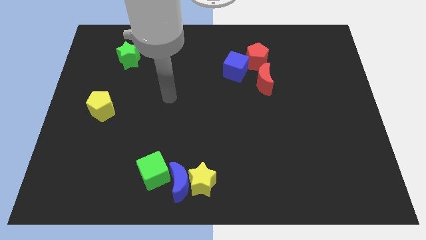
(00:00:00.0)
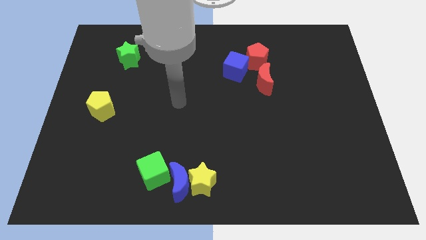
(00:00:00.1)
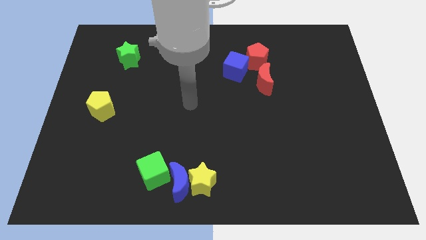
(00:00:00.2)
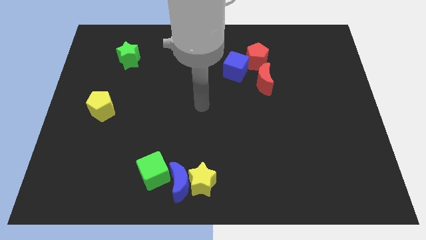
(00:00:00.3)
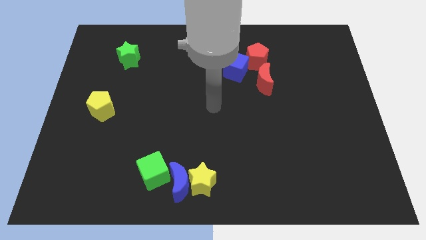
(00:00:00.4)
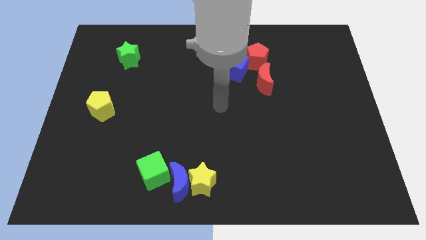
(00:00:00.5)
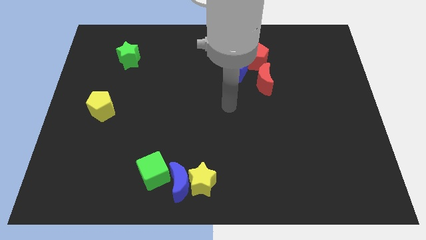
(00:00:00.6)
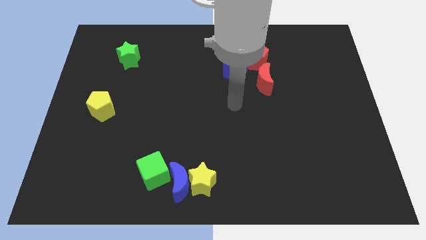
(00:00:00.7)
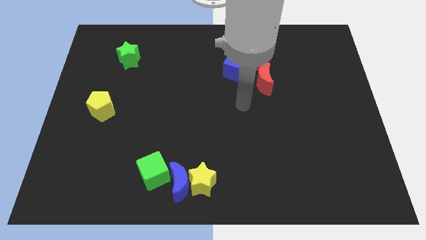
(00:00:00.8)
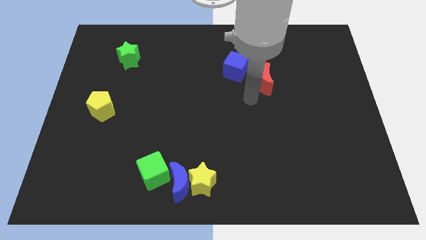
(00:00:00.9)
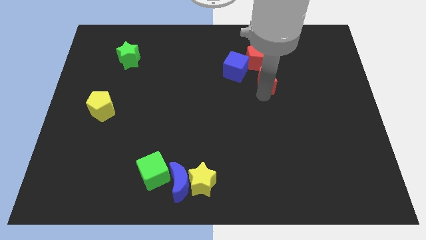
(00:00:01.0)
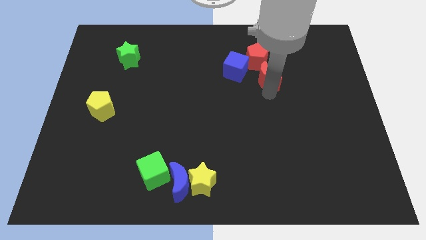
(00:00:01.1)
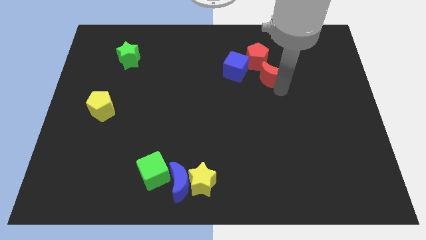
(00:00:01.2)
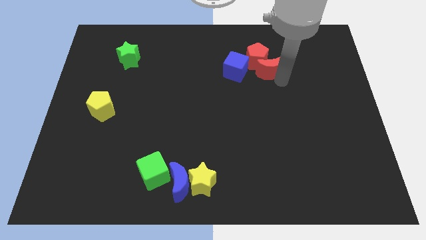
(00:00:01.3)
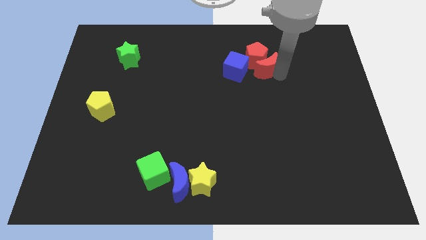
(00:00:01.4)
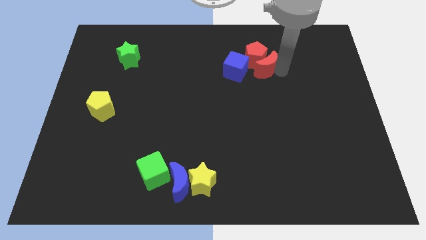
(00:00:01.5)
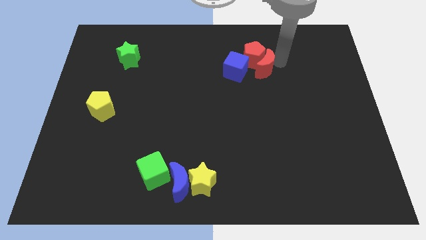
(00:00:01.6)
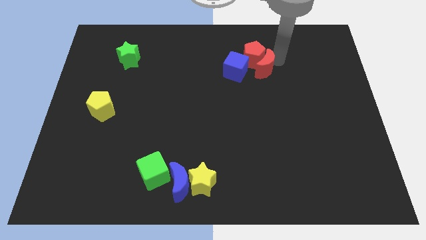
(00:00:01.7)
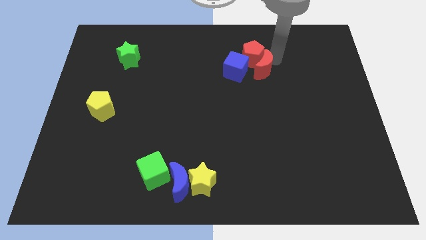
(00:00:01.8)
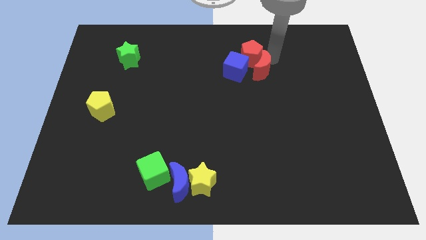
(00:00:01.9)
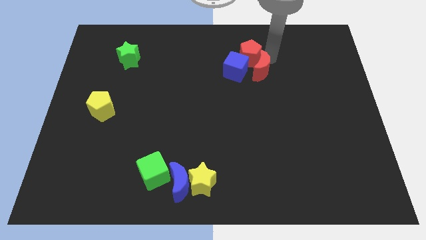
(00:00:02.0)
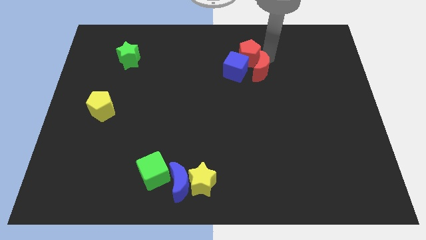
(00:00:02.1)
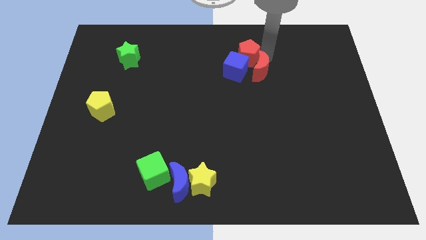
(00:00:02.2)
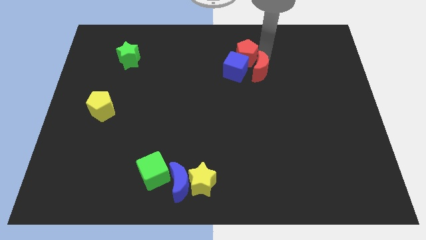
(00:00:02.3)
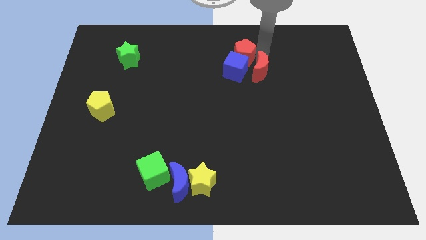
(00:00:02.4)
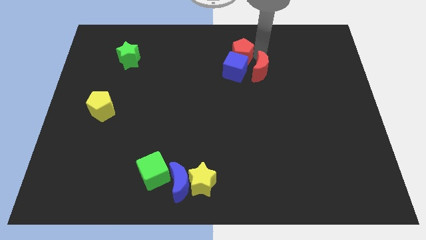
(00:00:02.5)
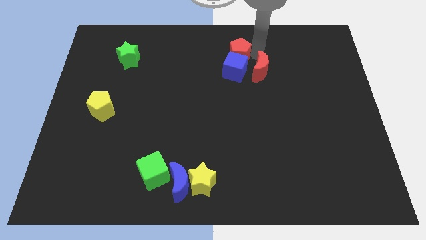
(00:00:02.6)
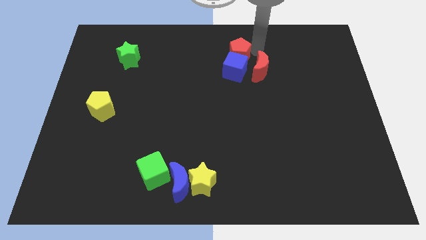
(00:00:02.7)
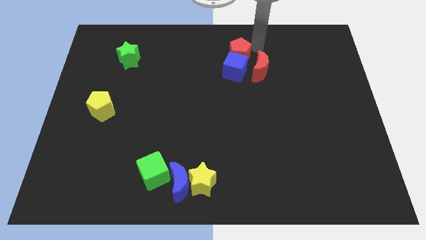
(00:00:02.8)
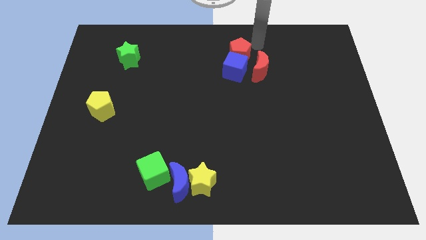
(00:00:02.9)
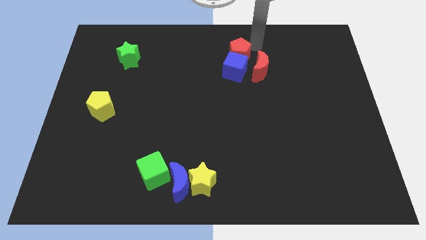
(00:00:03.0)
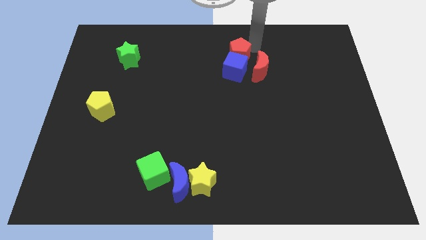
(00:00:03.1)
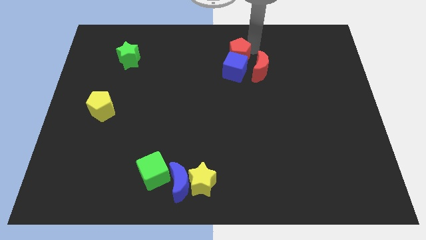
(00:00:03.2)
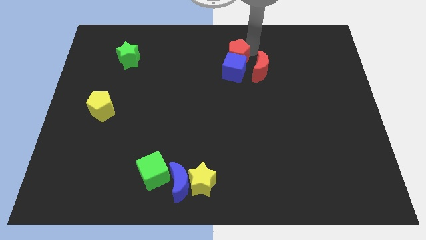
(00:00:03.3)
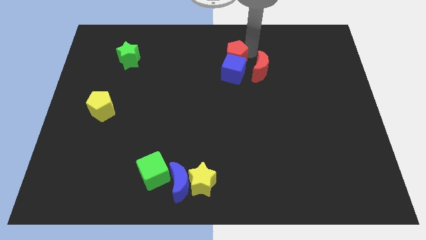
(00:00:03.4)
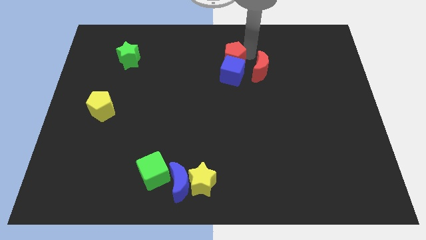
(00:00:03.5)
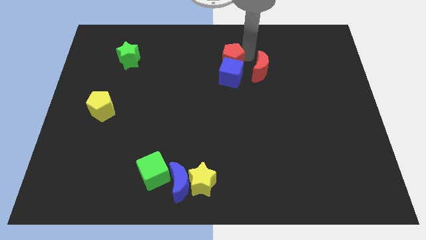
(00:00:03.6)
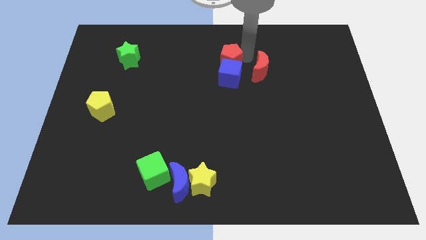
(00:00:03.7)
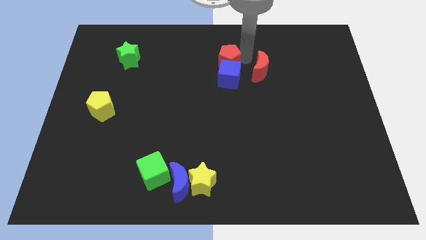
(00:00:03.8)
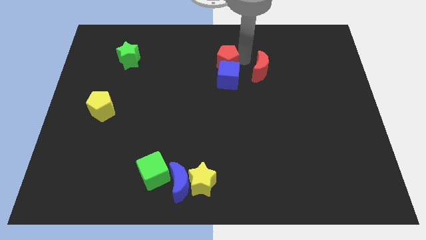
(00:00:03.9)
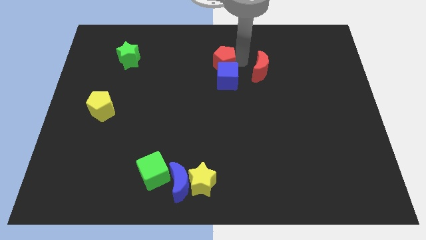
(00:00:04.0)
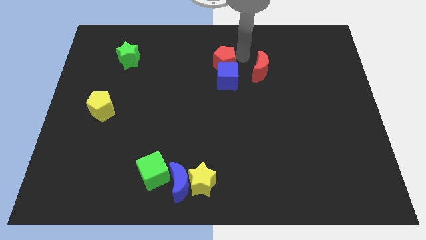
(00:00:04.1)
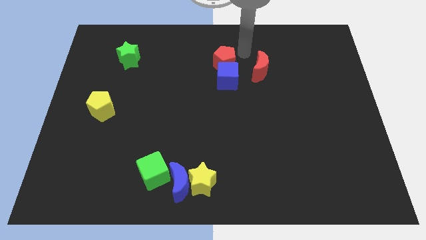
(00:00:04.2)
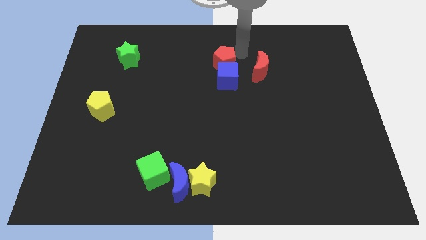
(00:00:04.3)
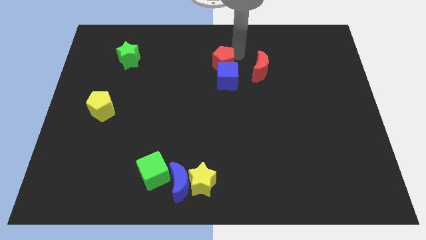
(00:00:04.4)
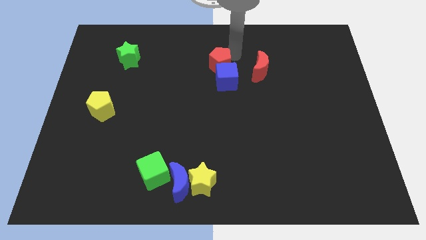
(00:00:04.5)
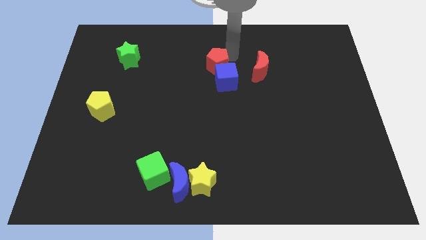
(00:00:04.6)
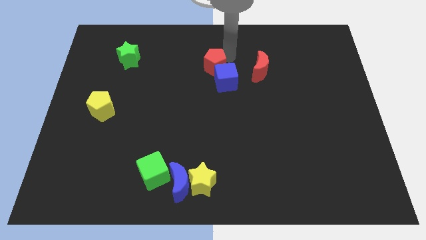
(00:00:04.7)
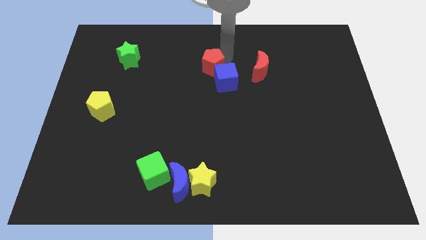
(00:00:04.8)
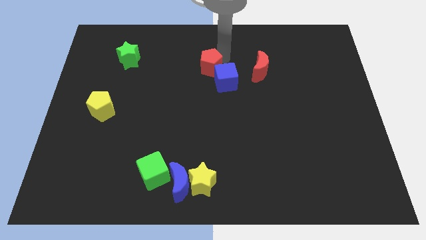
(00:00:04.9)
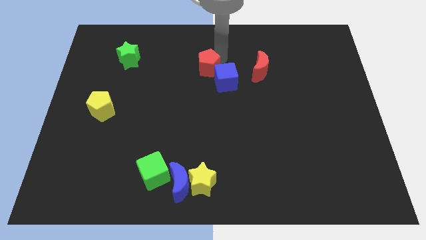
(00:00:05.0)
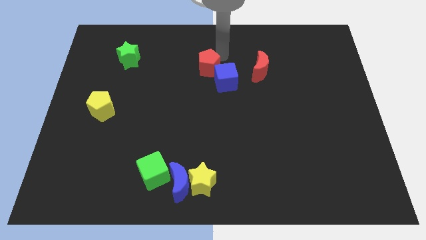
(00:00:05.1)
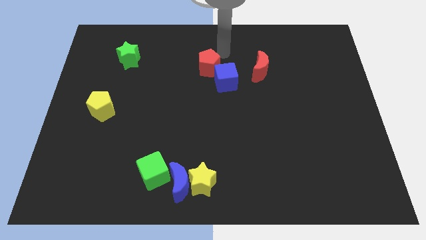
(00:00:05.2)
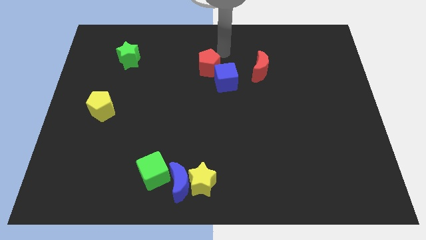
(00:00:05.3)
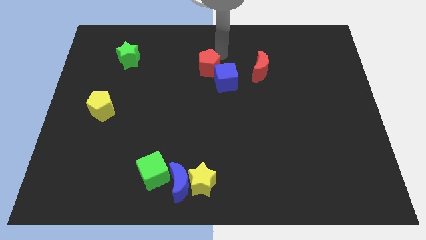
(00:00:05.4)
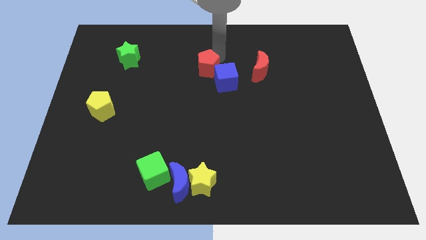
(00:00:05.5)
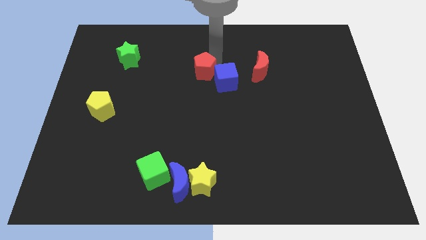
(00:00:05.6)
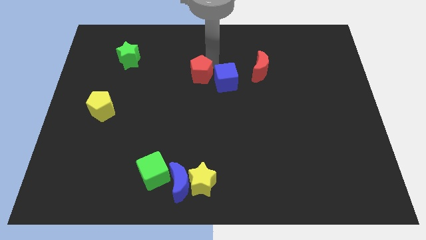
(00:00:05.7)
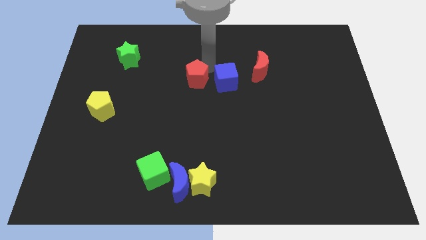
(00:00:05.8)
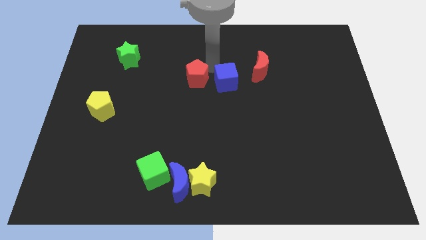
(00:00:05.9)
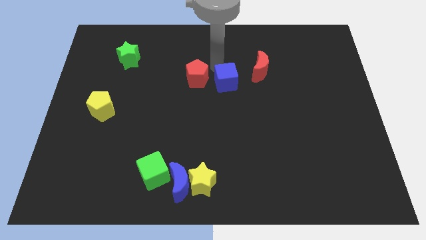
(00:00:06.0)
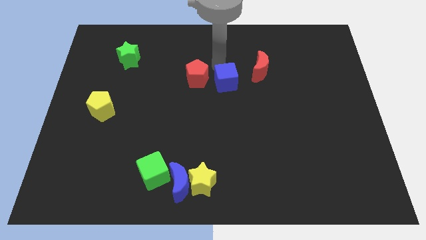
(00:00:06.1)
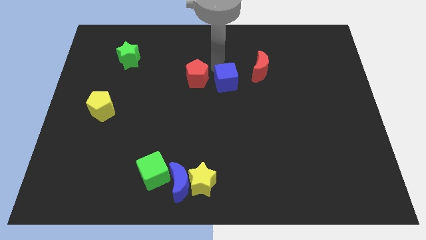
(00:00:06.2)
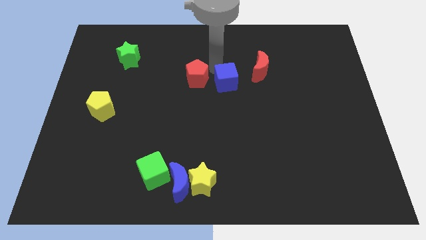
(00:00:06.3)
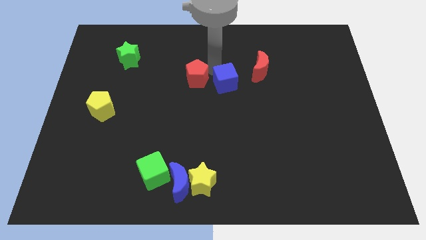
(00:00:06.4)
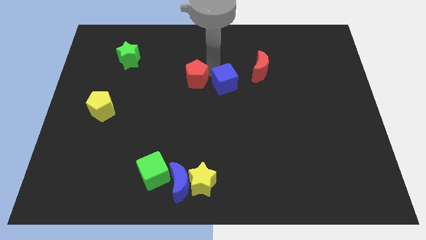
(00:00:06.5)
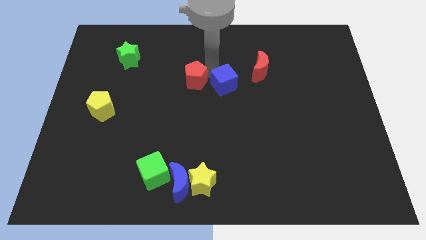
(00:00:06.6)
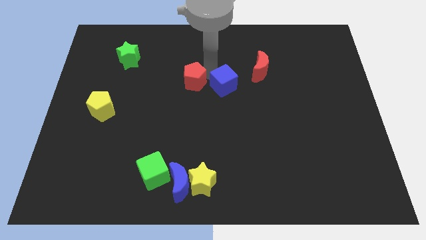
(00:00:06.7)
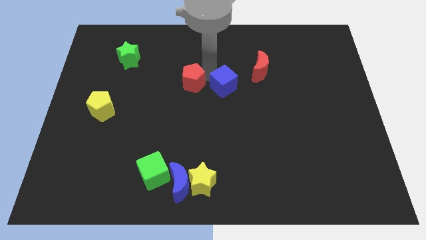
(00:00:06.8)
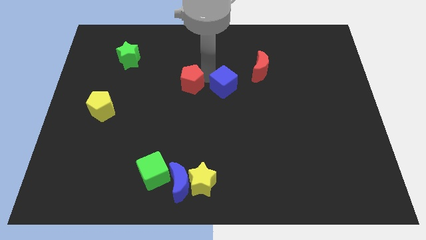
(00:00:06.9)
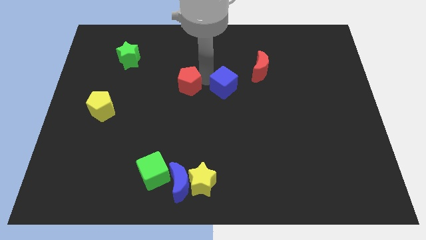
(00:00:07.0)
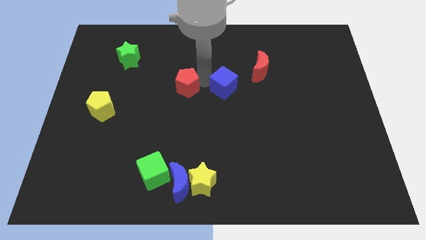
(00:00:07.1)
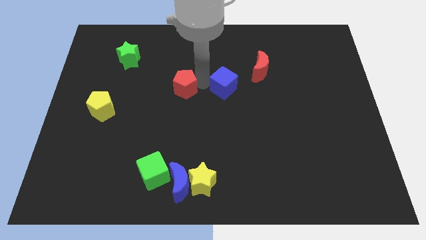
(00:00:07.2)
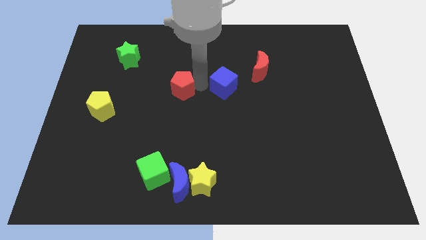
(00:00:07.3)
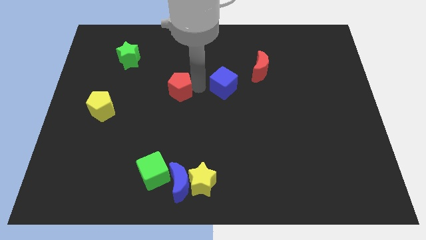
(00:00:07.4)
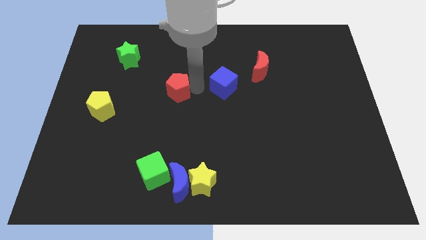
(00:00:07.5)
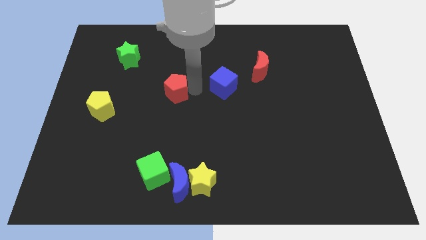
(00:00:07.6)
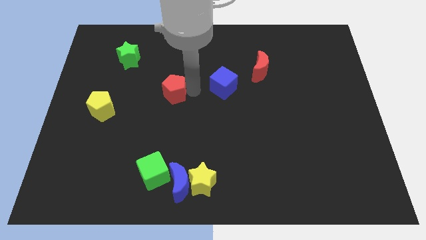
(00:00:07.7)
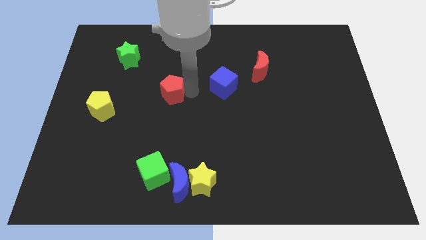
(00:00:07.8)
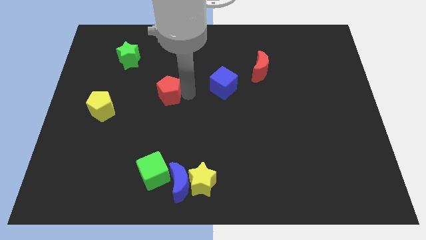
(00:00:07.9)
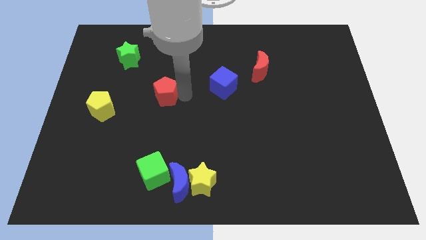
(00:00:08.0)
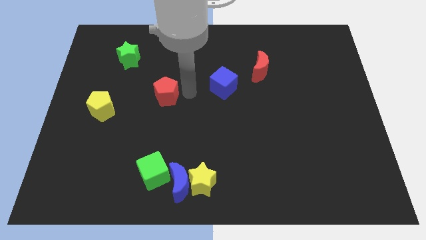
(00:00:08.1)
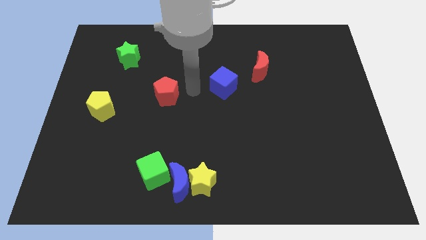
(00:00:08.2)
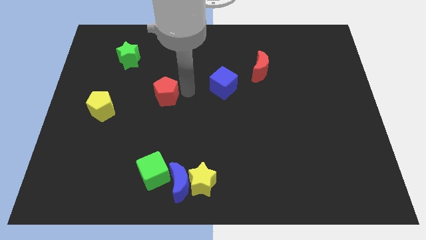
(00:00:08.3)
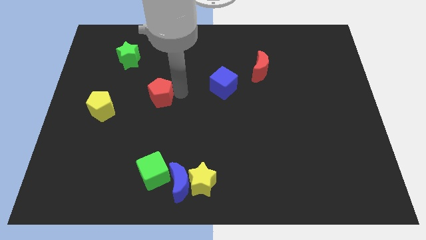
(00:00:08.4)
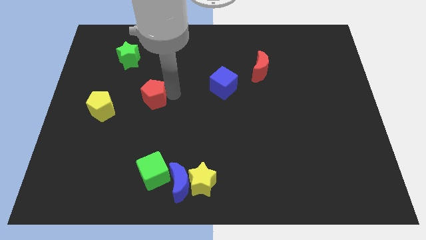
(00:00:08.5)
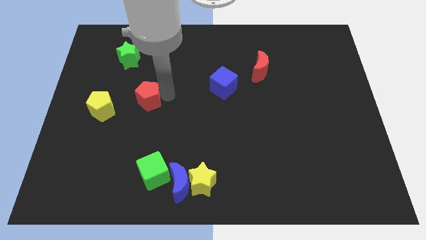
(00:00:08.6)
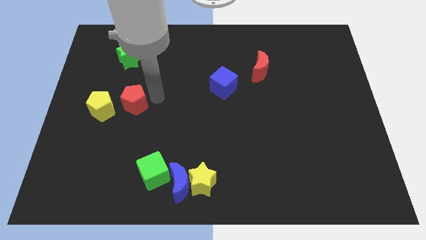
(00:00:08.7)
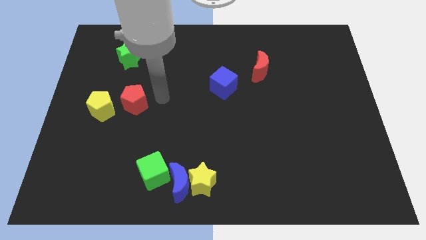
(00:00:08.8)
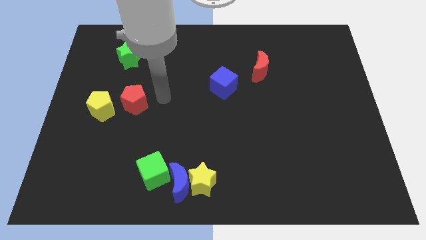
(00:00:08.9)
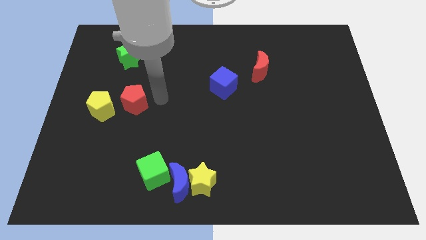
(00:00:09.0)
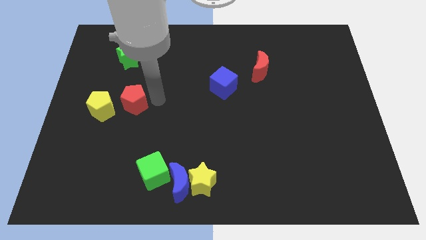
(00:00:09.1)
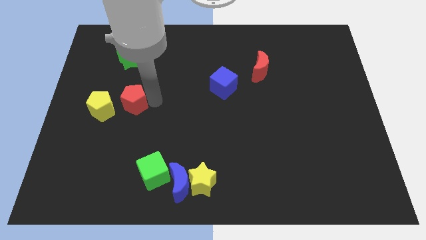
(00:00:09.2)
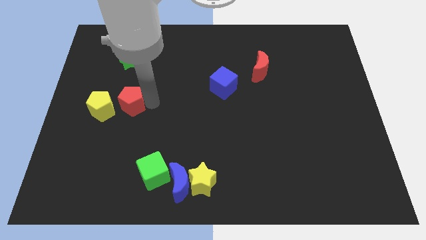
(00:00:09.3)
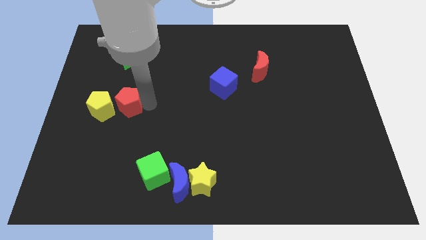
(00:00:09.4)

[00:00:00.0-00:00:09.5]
push the red pentagon to the yellow pentagon
